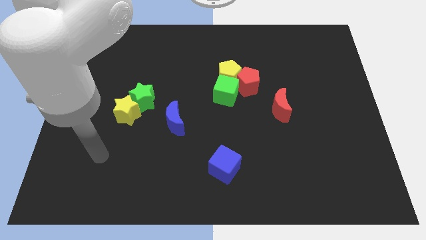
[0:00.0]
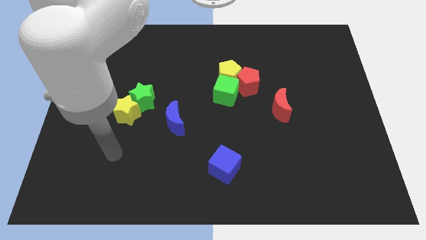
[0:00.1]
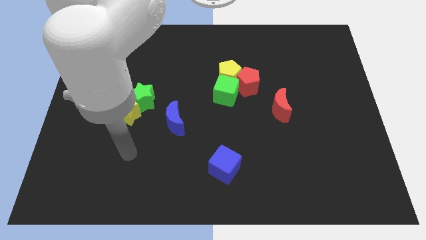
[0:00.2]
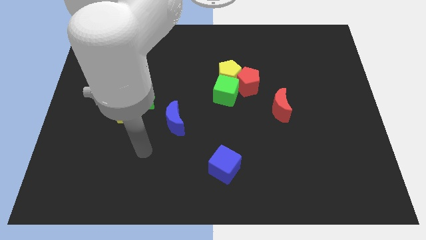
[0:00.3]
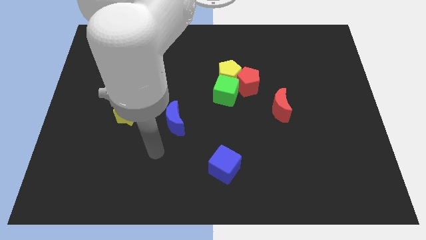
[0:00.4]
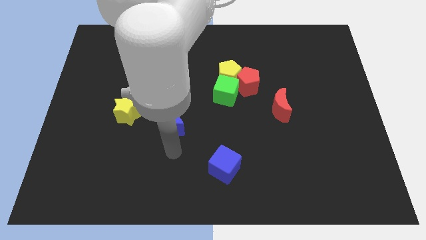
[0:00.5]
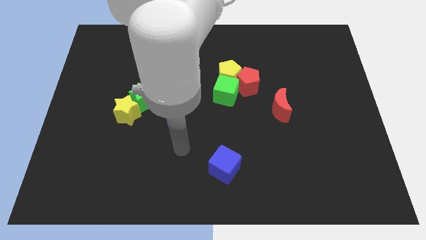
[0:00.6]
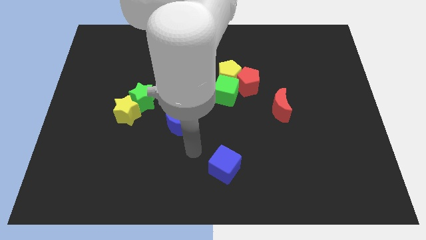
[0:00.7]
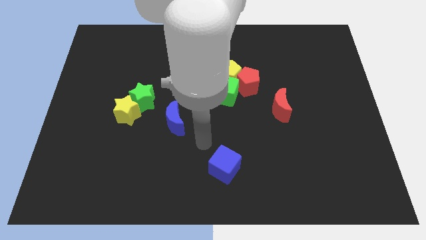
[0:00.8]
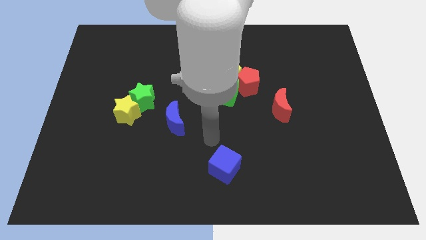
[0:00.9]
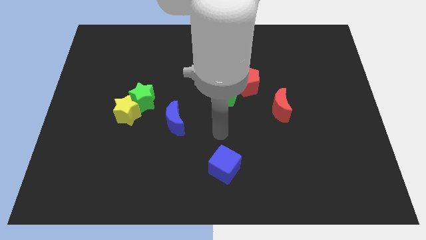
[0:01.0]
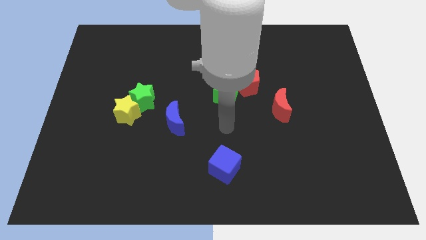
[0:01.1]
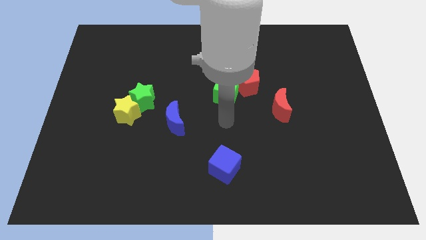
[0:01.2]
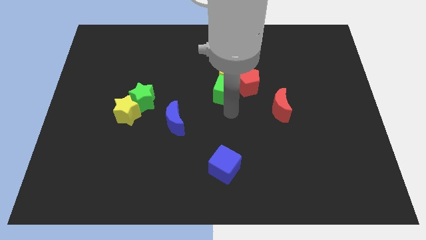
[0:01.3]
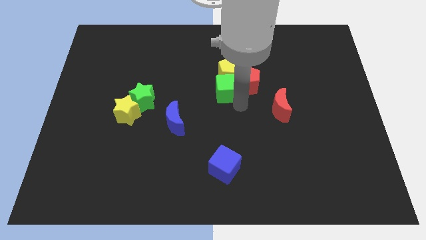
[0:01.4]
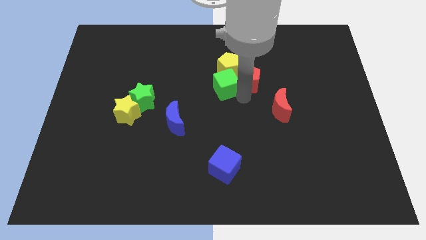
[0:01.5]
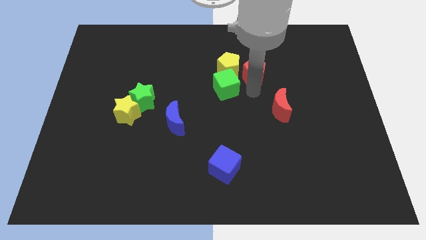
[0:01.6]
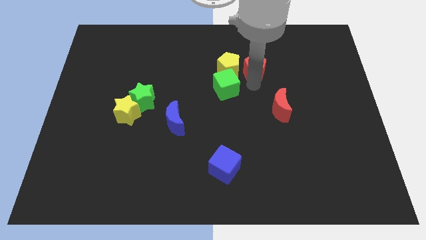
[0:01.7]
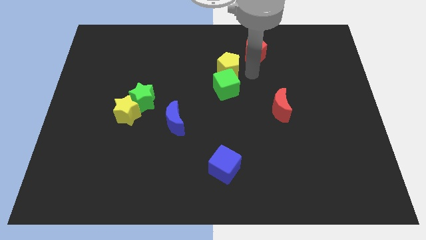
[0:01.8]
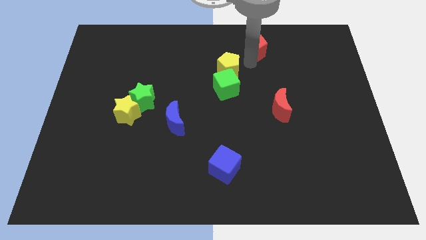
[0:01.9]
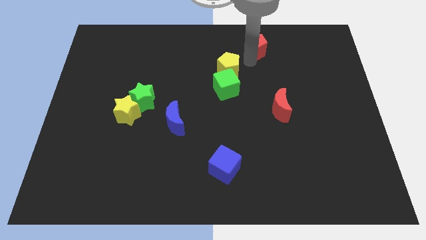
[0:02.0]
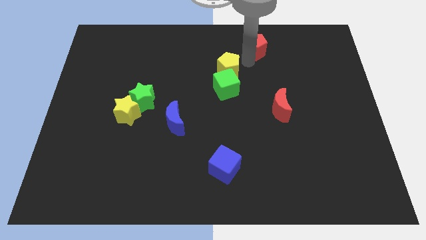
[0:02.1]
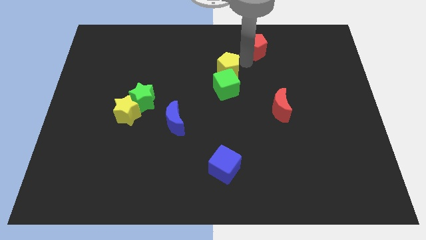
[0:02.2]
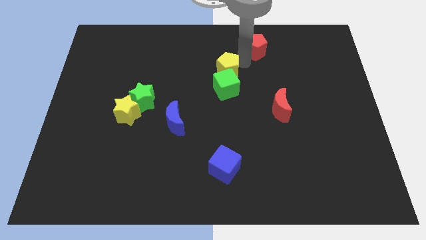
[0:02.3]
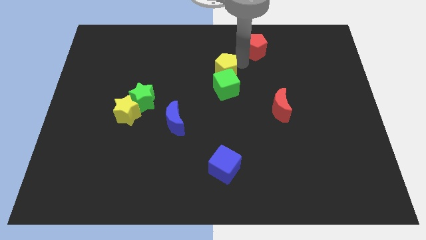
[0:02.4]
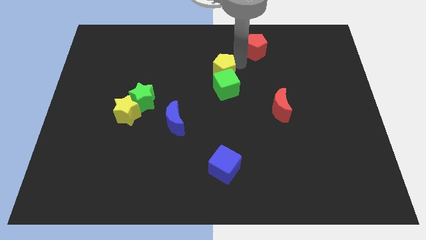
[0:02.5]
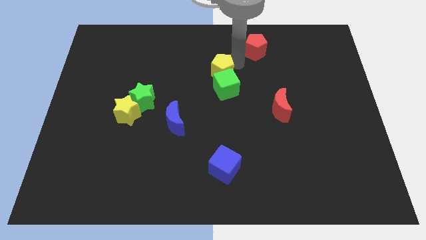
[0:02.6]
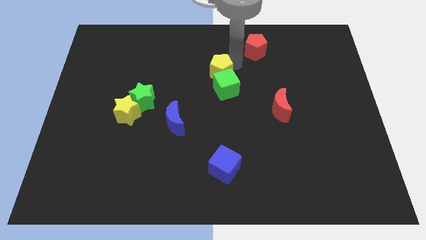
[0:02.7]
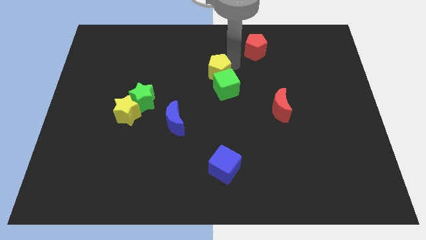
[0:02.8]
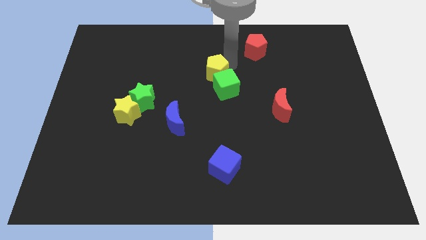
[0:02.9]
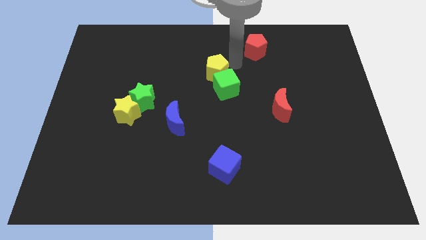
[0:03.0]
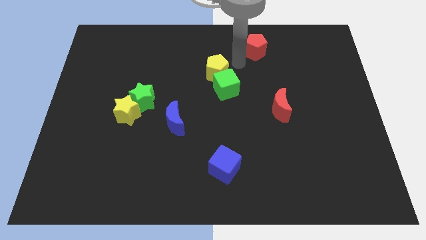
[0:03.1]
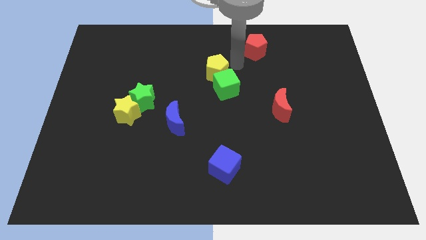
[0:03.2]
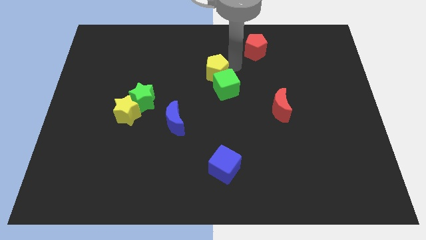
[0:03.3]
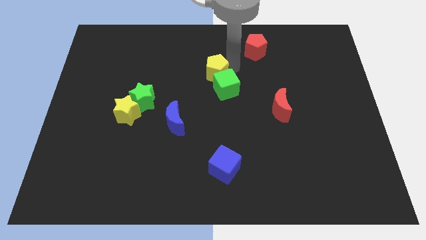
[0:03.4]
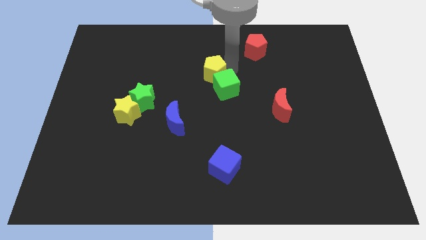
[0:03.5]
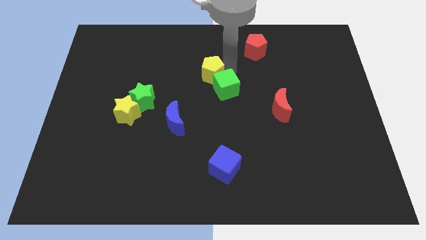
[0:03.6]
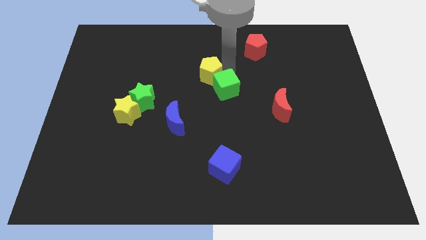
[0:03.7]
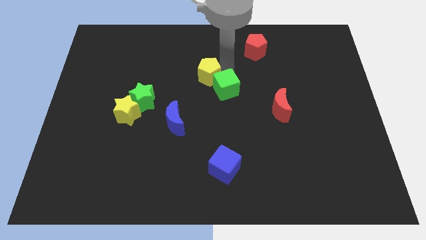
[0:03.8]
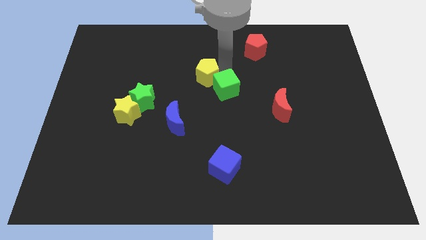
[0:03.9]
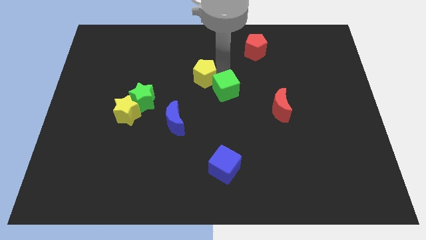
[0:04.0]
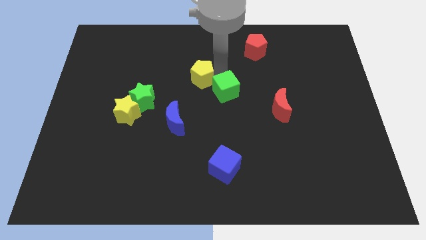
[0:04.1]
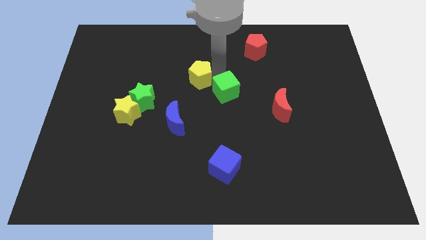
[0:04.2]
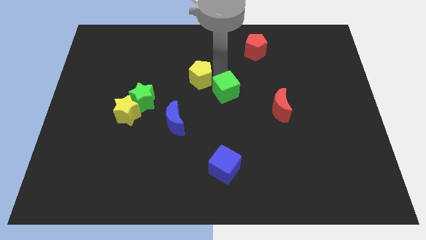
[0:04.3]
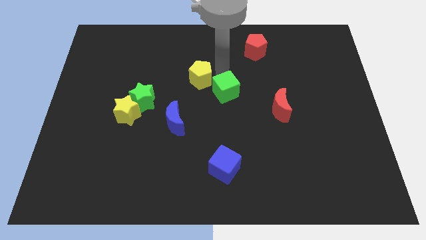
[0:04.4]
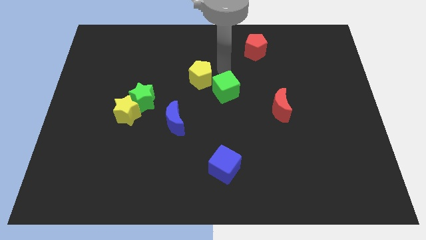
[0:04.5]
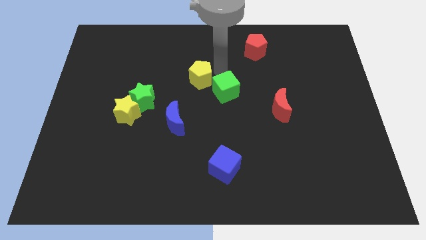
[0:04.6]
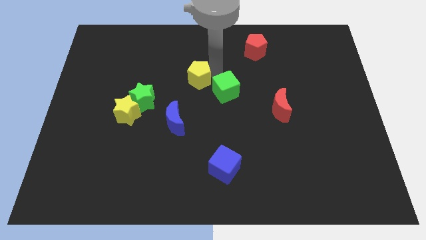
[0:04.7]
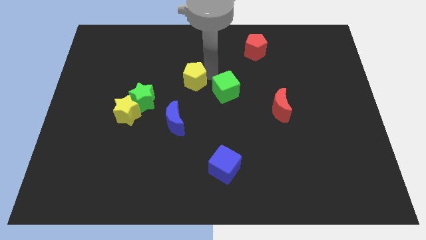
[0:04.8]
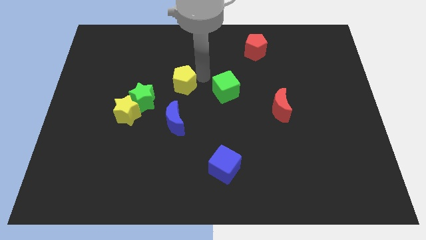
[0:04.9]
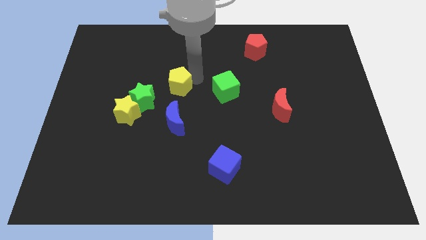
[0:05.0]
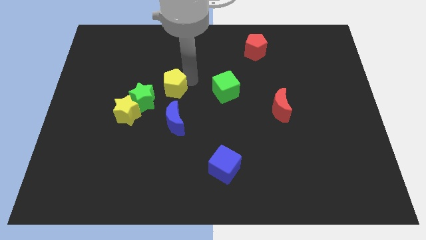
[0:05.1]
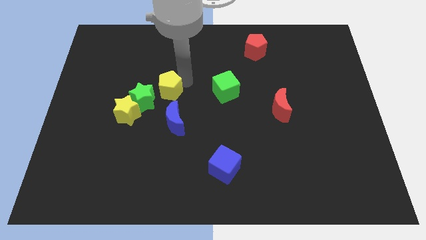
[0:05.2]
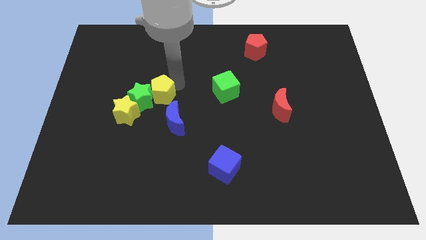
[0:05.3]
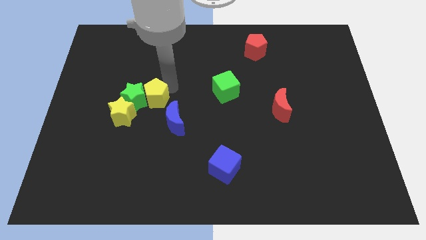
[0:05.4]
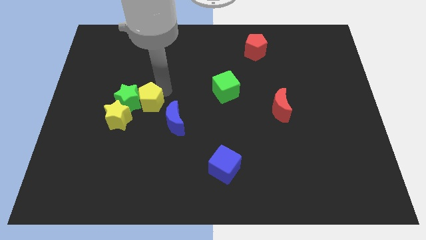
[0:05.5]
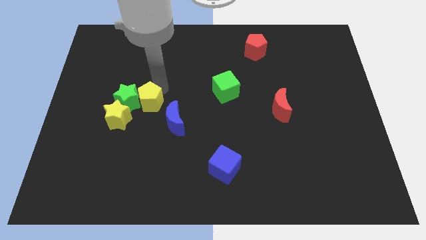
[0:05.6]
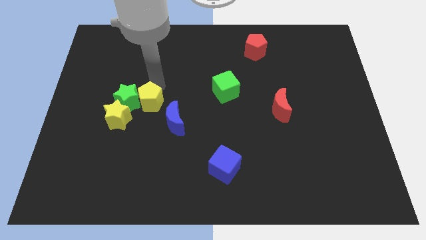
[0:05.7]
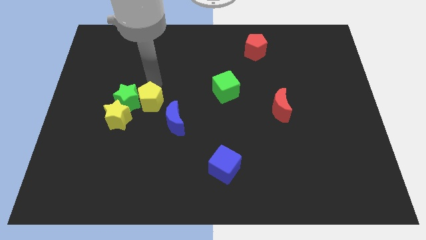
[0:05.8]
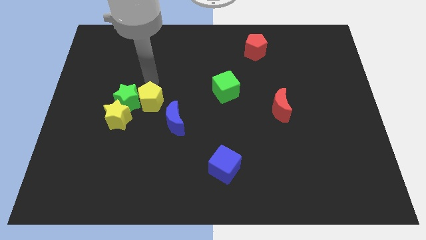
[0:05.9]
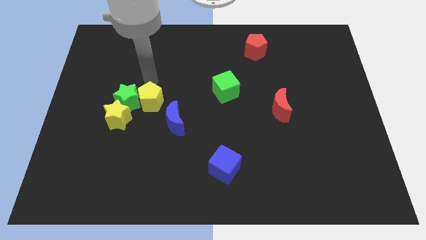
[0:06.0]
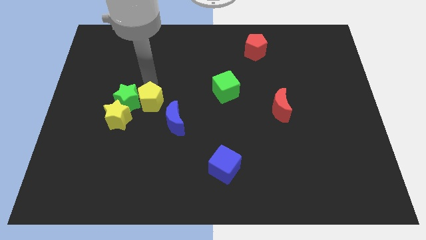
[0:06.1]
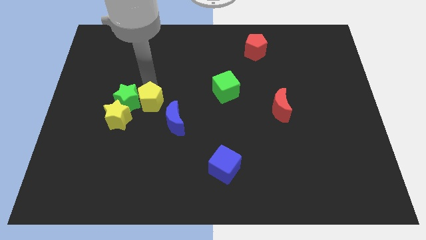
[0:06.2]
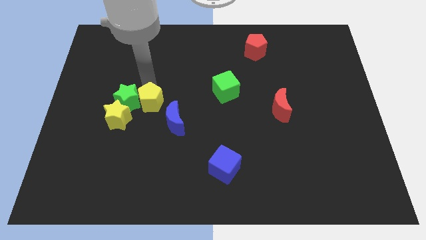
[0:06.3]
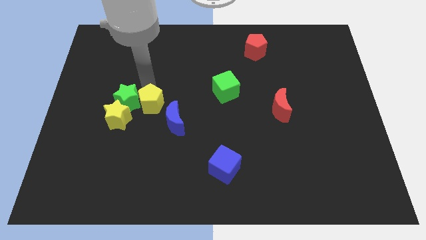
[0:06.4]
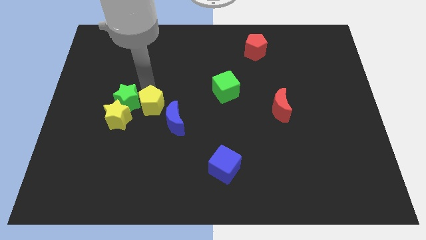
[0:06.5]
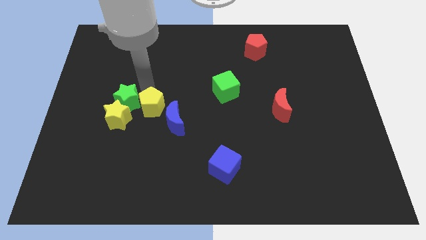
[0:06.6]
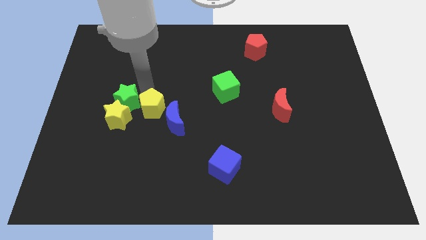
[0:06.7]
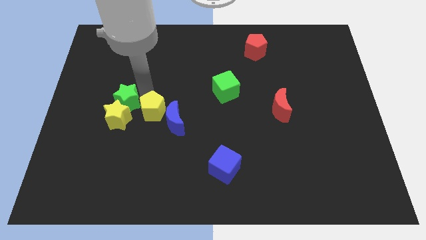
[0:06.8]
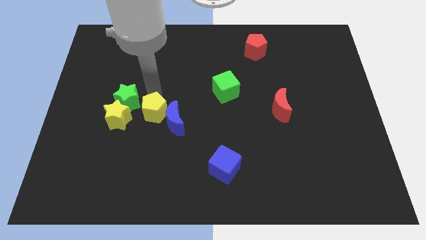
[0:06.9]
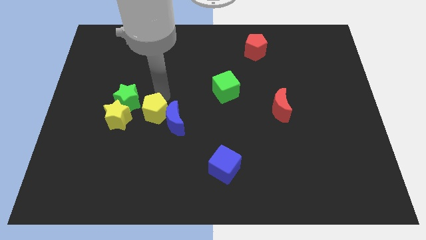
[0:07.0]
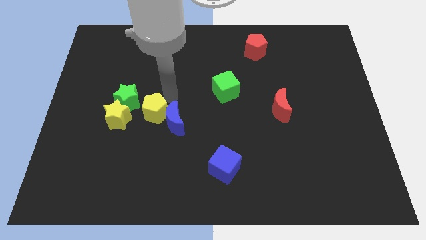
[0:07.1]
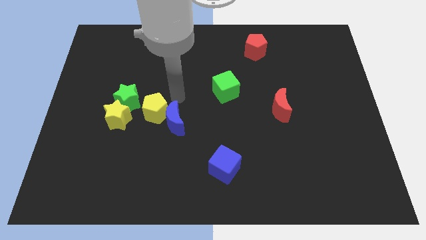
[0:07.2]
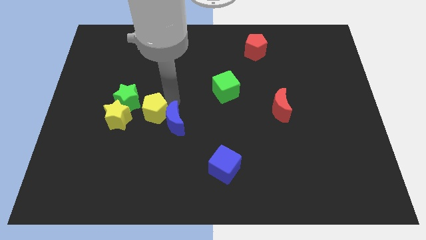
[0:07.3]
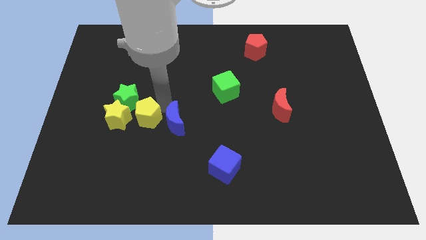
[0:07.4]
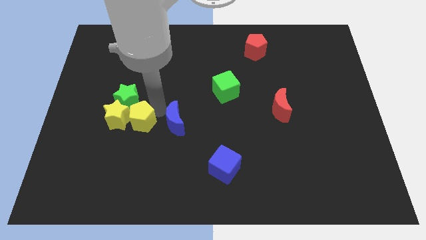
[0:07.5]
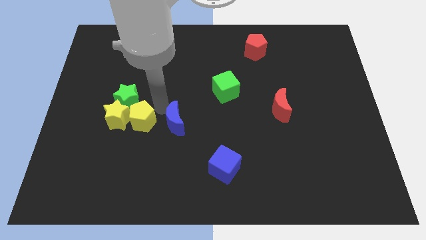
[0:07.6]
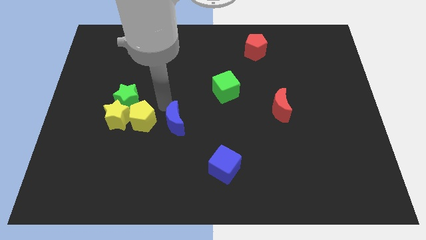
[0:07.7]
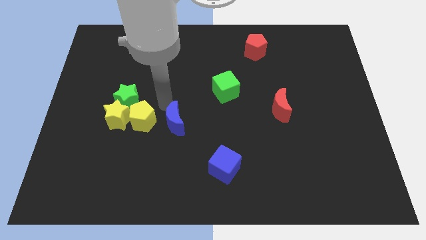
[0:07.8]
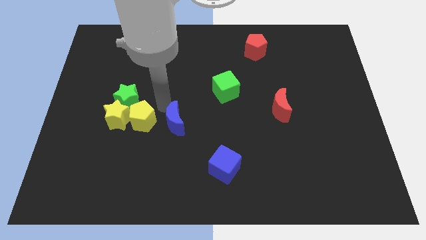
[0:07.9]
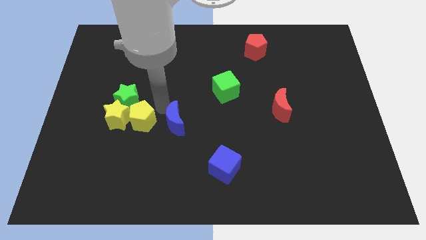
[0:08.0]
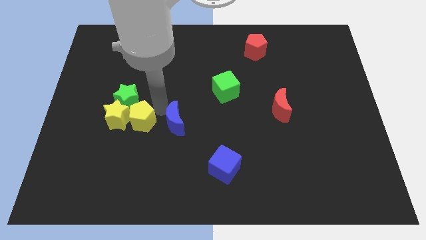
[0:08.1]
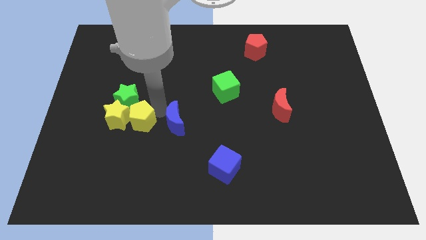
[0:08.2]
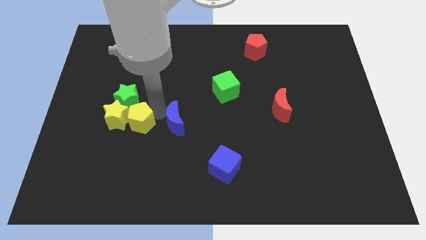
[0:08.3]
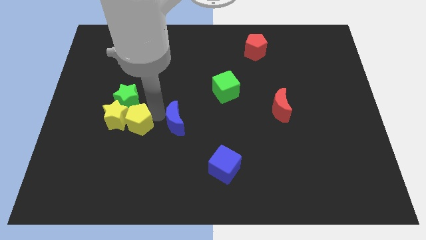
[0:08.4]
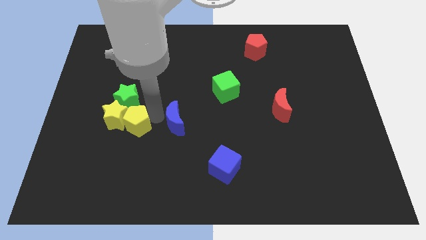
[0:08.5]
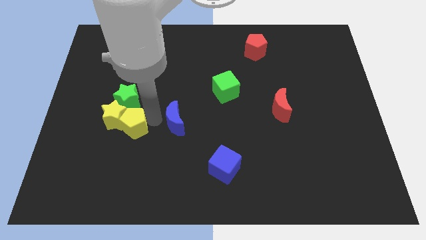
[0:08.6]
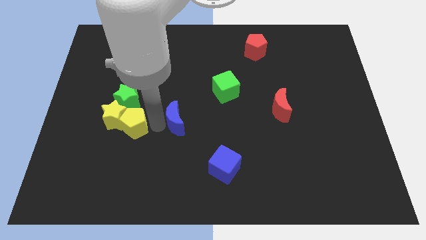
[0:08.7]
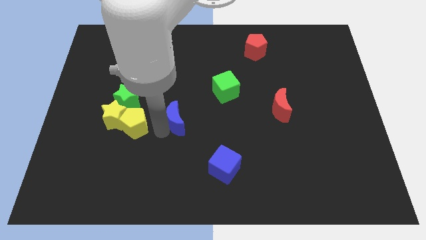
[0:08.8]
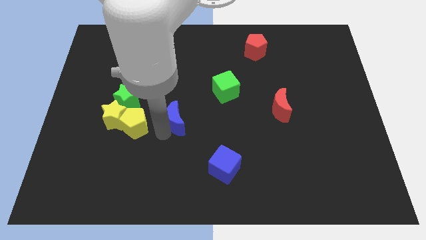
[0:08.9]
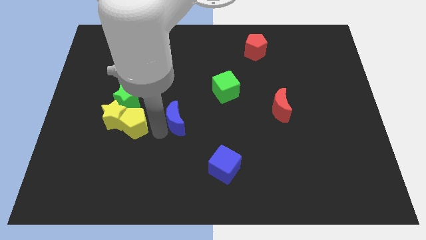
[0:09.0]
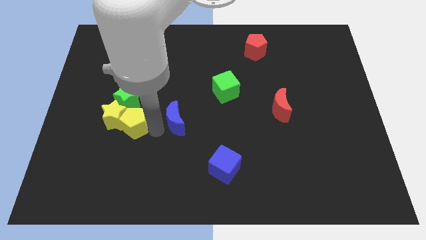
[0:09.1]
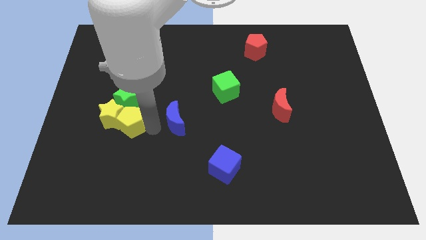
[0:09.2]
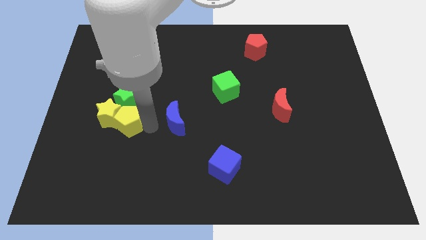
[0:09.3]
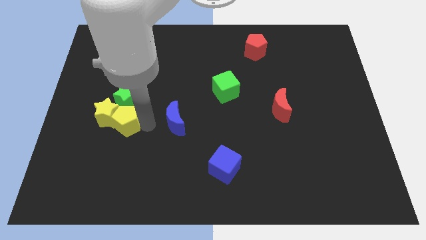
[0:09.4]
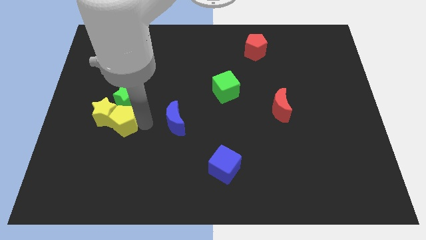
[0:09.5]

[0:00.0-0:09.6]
slide the yellow pentagon to the bottom left side of the green star
